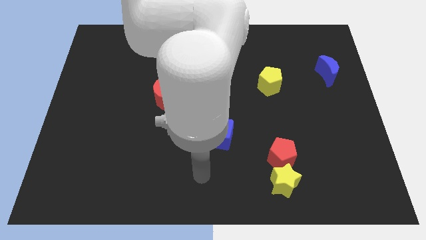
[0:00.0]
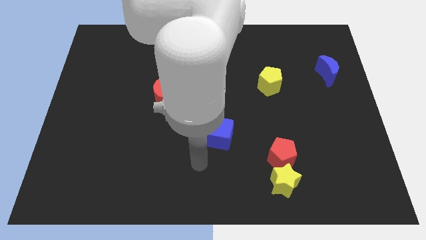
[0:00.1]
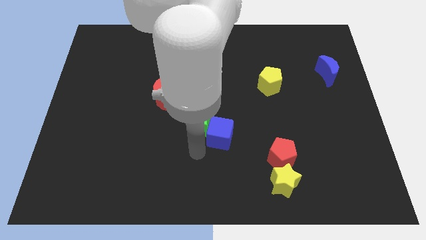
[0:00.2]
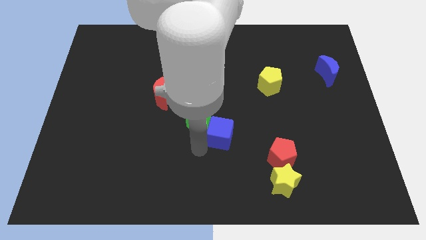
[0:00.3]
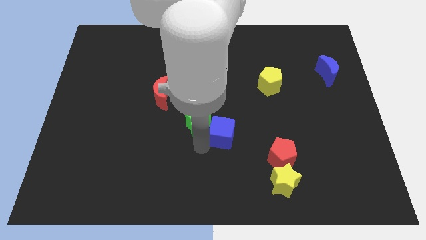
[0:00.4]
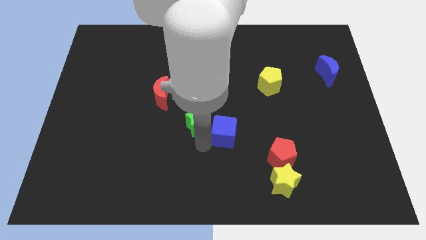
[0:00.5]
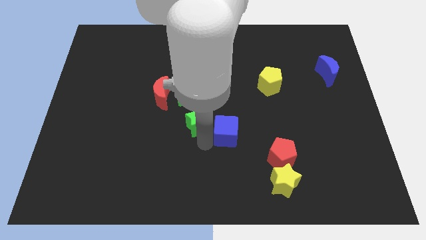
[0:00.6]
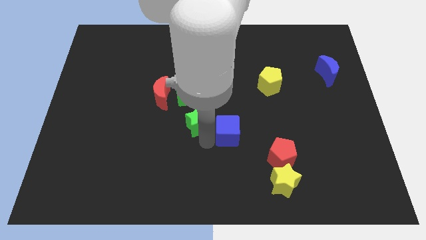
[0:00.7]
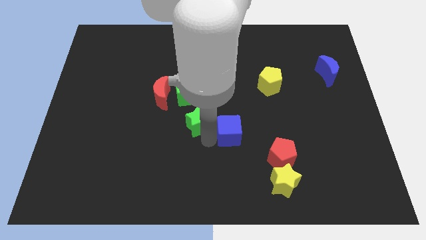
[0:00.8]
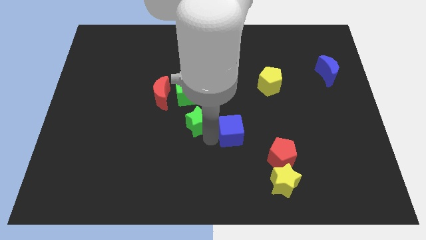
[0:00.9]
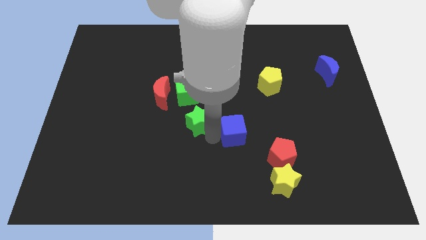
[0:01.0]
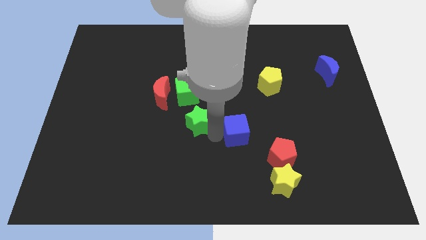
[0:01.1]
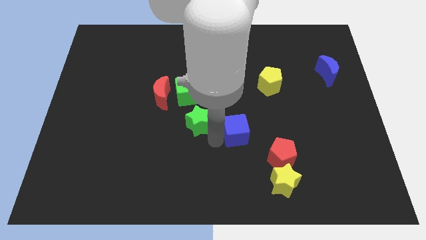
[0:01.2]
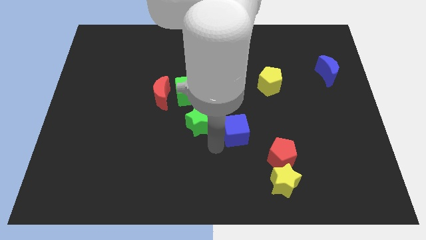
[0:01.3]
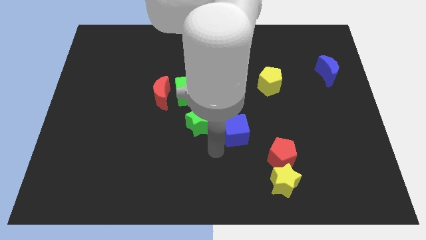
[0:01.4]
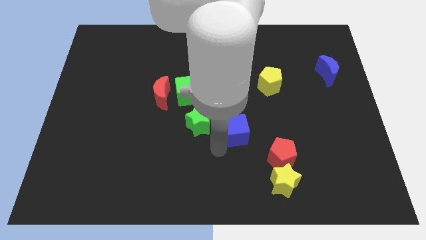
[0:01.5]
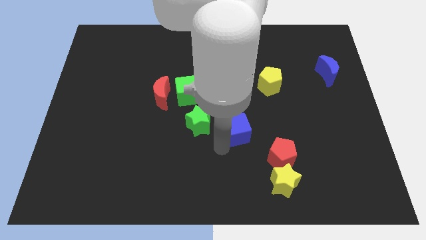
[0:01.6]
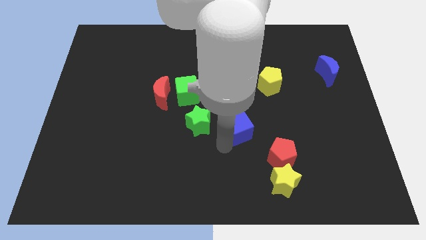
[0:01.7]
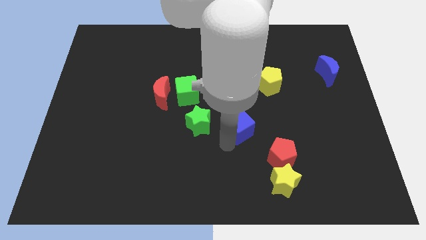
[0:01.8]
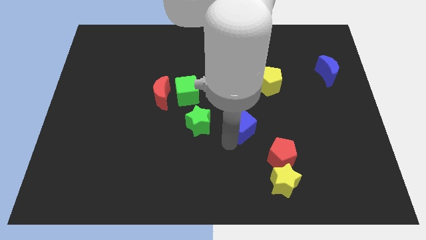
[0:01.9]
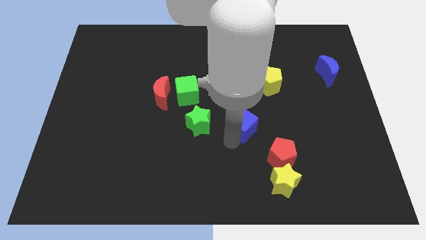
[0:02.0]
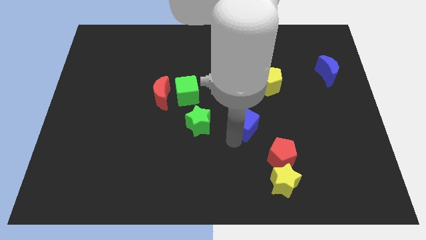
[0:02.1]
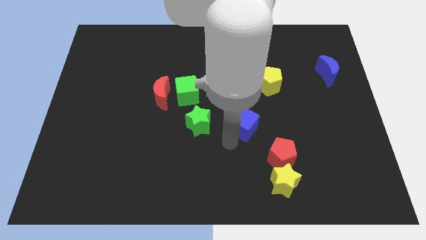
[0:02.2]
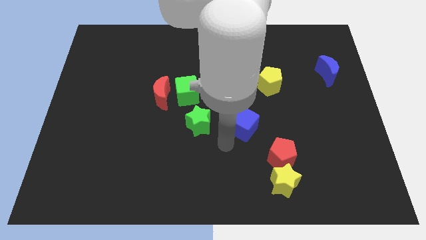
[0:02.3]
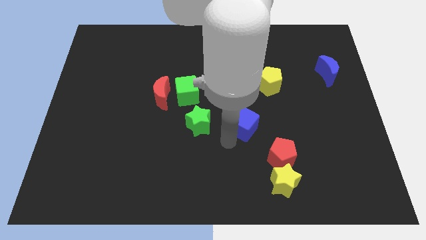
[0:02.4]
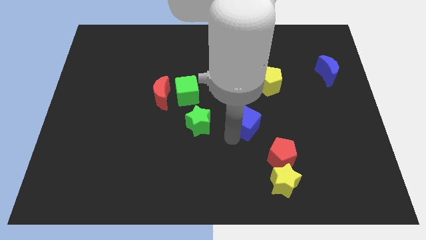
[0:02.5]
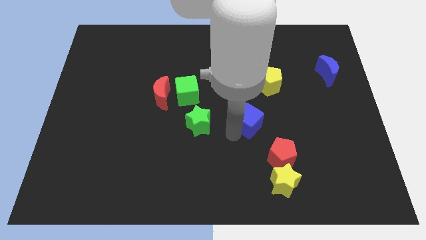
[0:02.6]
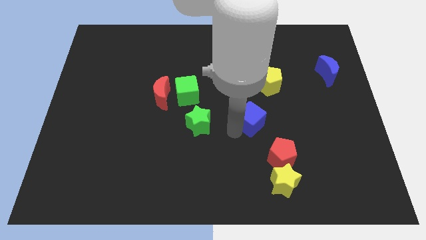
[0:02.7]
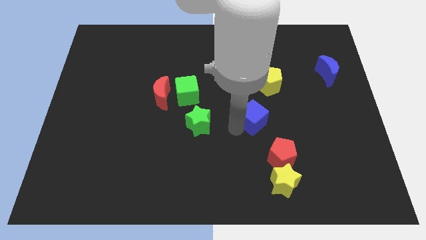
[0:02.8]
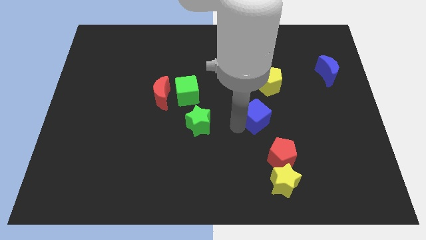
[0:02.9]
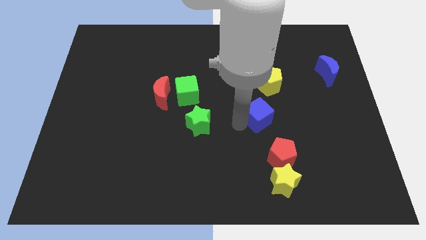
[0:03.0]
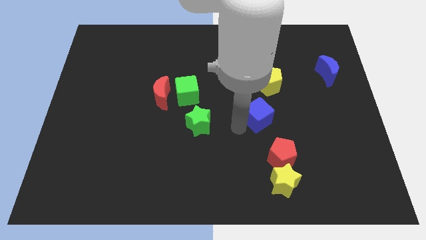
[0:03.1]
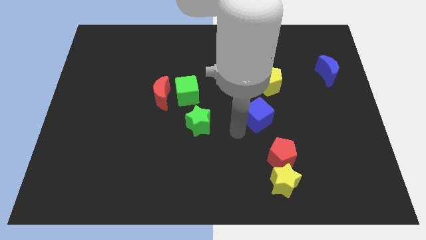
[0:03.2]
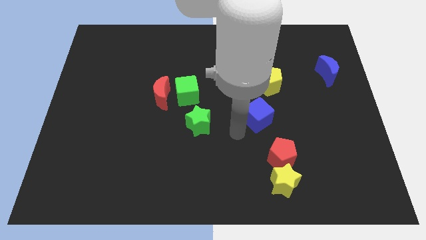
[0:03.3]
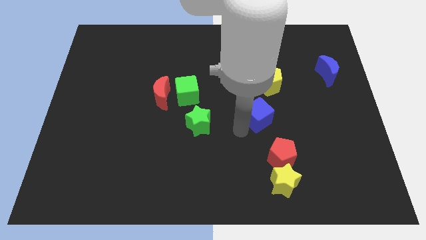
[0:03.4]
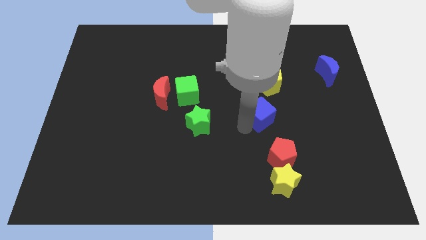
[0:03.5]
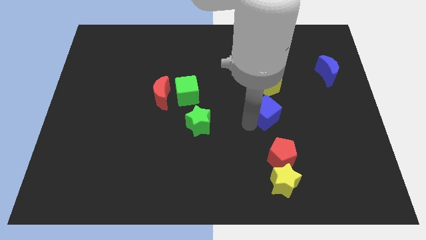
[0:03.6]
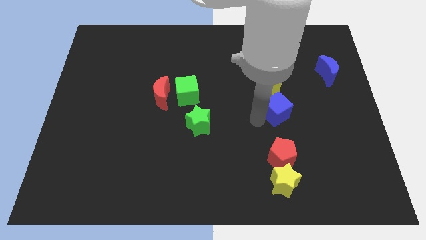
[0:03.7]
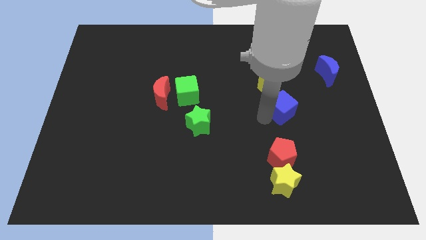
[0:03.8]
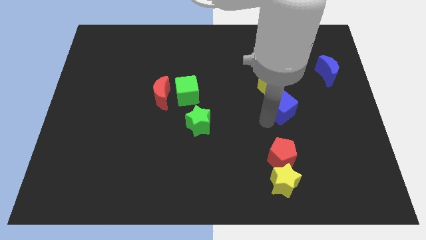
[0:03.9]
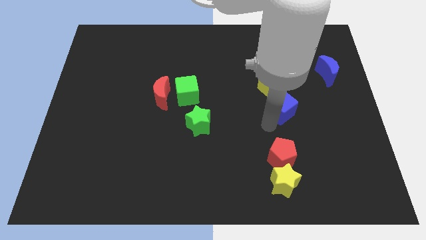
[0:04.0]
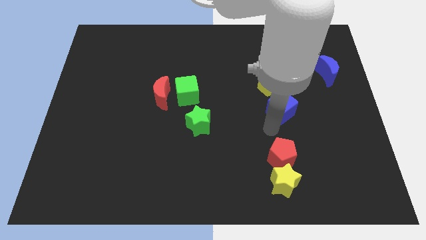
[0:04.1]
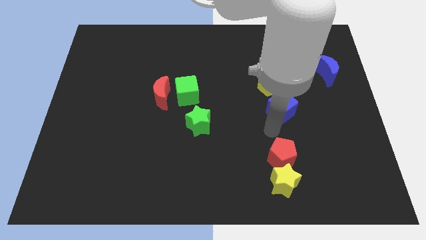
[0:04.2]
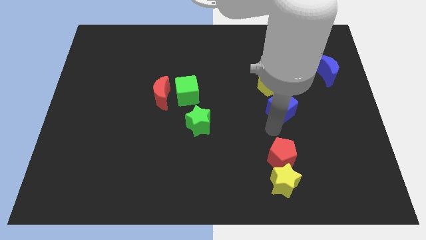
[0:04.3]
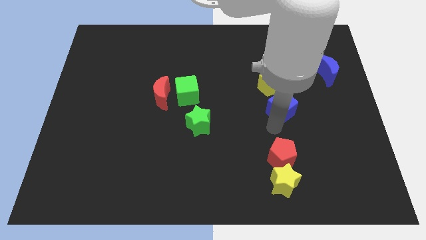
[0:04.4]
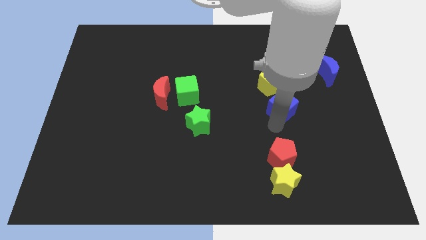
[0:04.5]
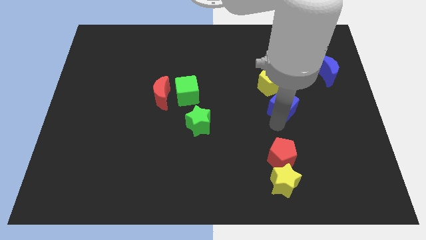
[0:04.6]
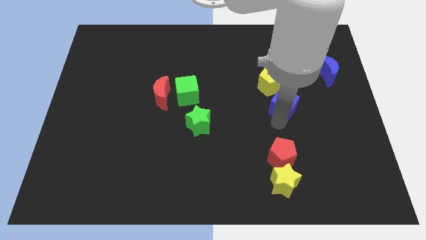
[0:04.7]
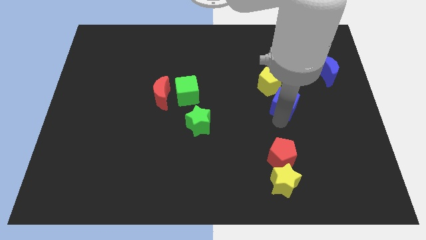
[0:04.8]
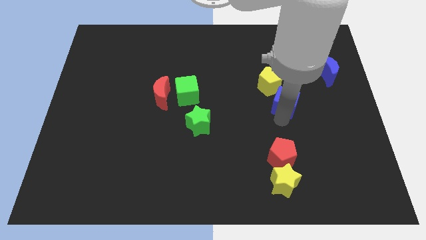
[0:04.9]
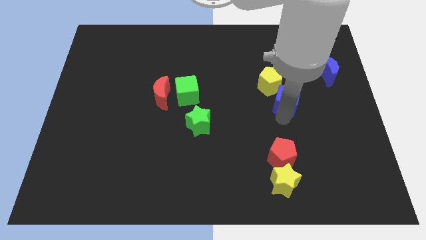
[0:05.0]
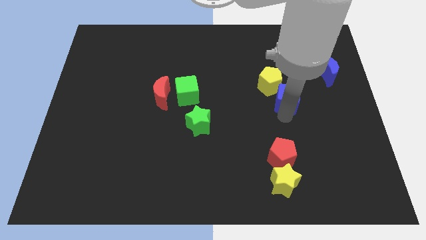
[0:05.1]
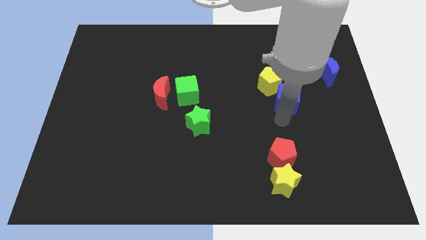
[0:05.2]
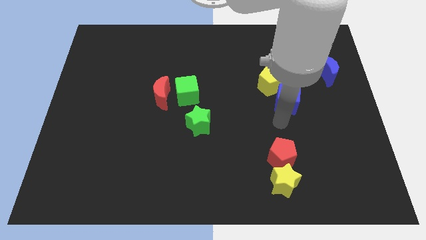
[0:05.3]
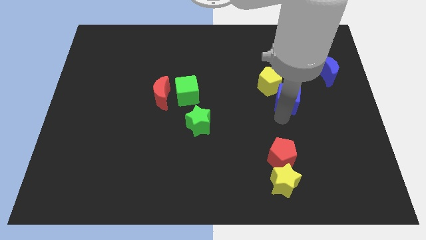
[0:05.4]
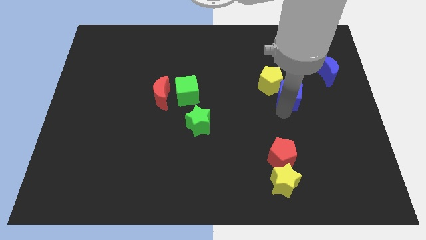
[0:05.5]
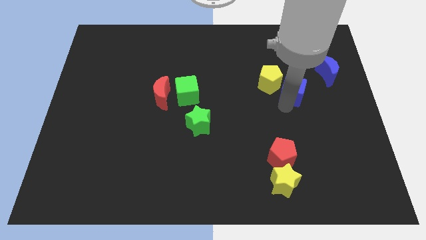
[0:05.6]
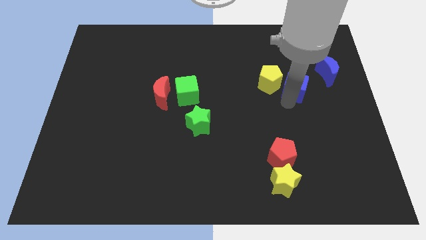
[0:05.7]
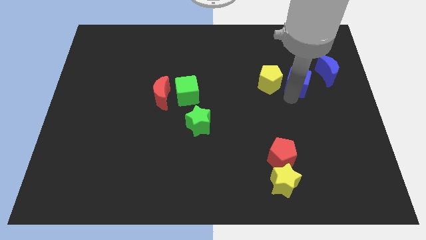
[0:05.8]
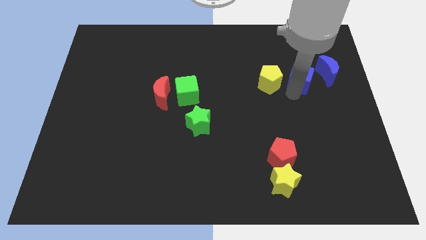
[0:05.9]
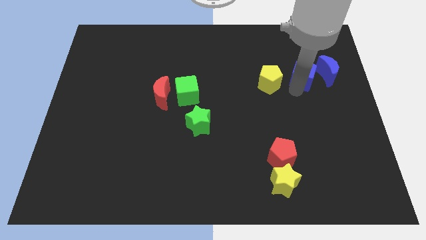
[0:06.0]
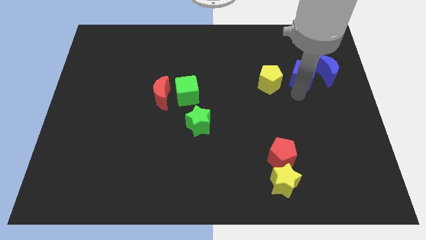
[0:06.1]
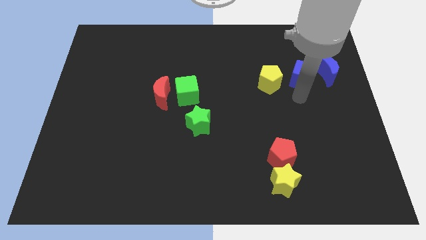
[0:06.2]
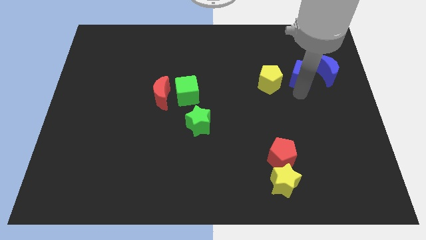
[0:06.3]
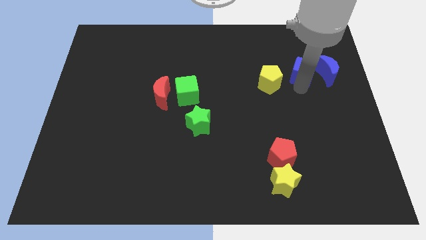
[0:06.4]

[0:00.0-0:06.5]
move the blue cube to the top left side of the blue moon

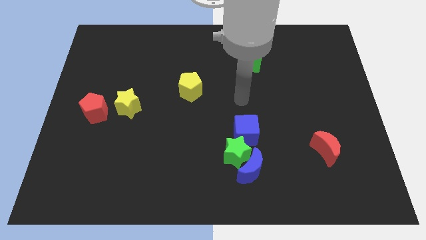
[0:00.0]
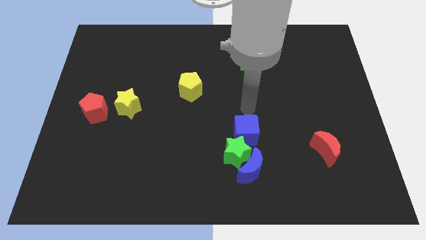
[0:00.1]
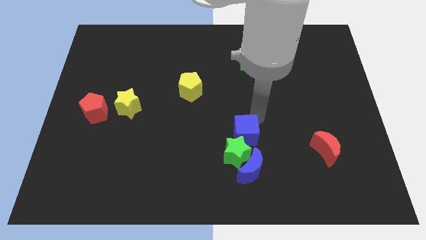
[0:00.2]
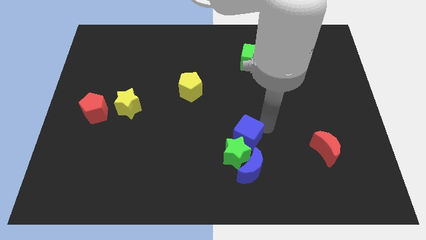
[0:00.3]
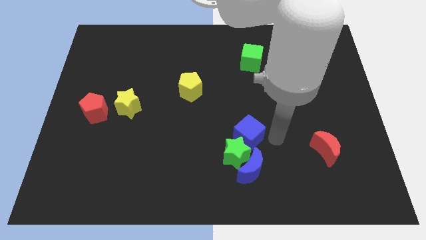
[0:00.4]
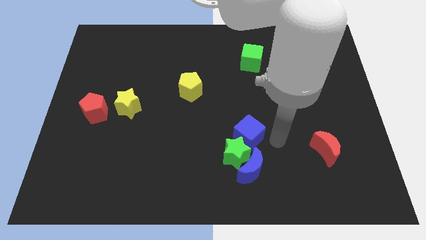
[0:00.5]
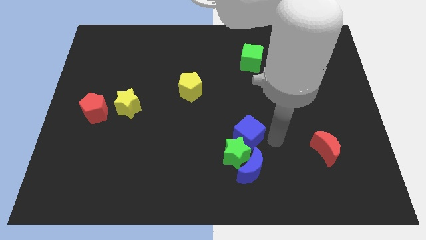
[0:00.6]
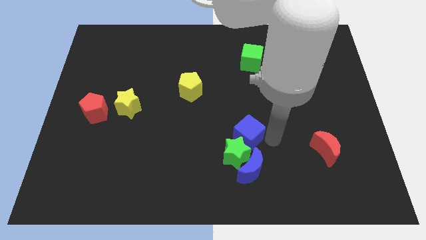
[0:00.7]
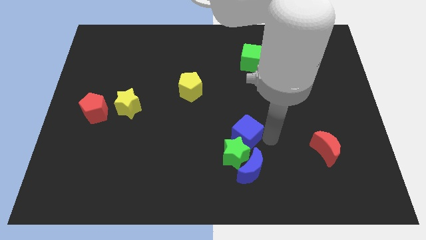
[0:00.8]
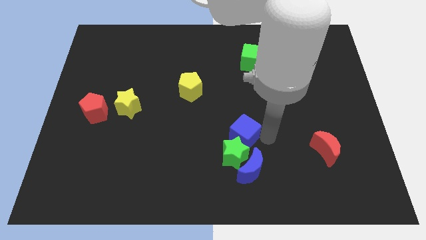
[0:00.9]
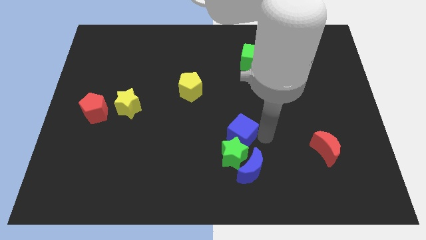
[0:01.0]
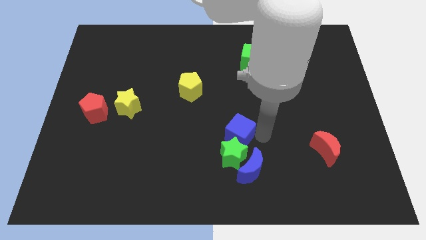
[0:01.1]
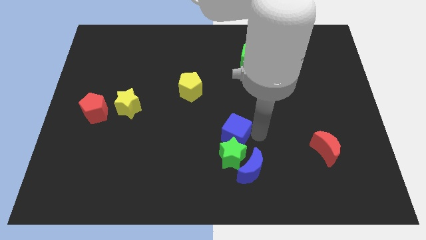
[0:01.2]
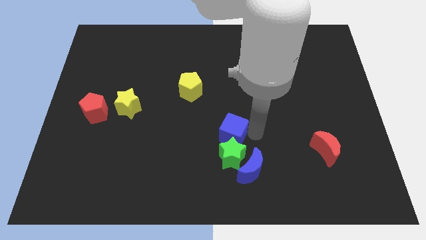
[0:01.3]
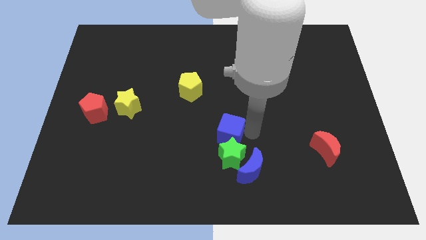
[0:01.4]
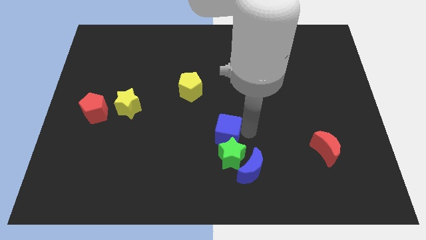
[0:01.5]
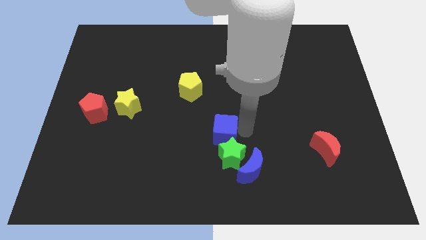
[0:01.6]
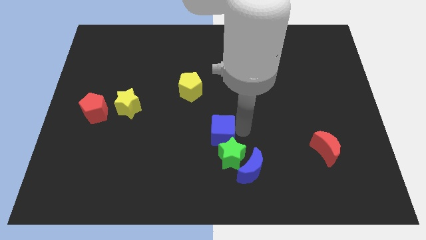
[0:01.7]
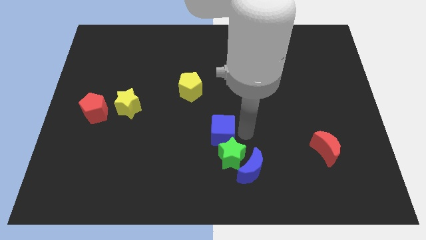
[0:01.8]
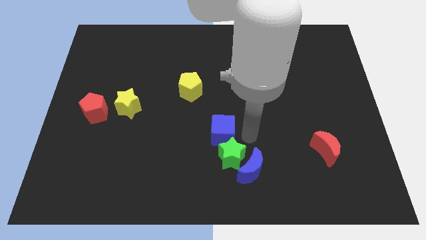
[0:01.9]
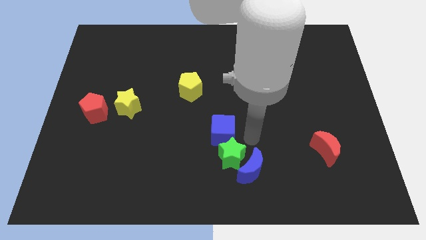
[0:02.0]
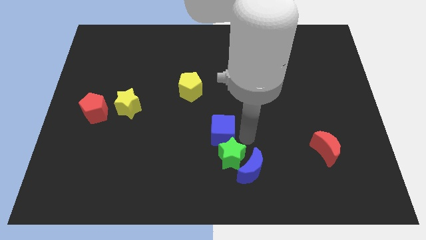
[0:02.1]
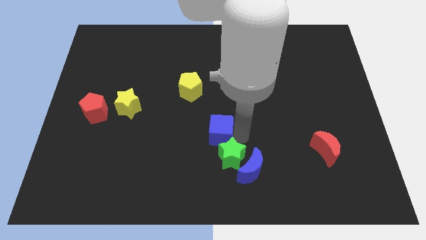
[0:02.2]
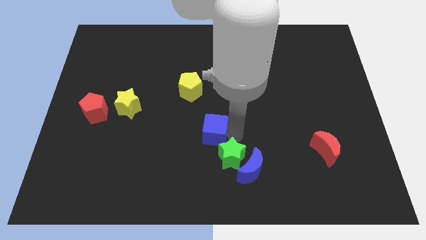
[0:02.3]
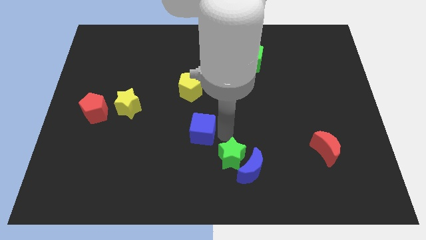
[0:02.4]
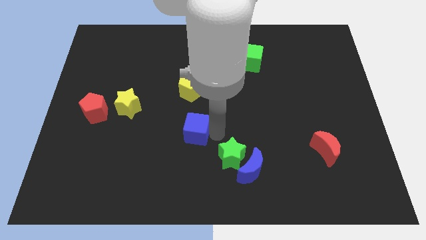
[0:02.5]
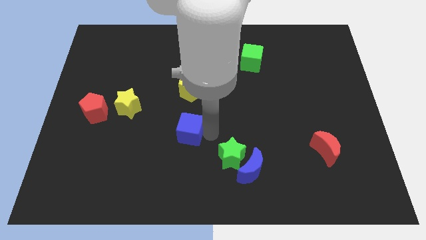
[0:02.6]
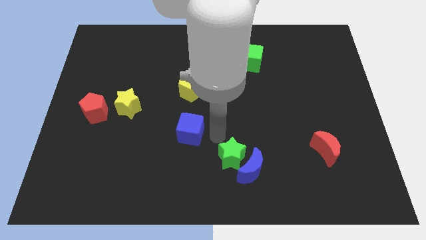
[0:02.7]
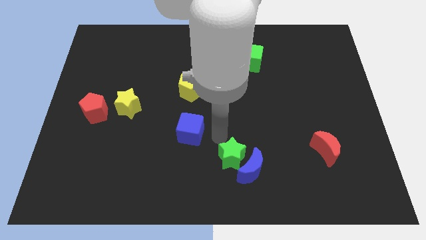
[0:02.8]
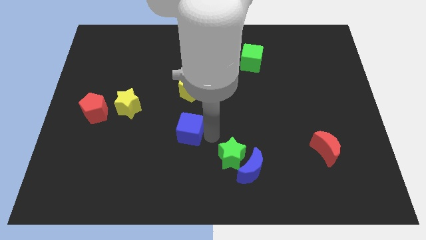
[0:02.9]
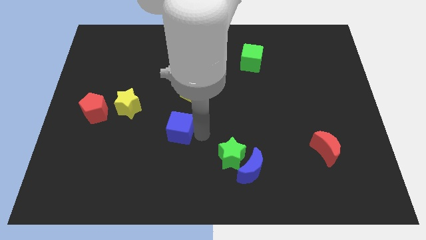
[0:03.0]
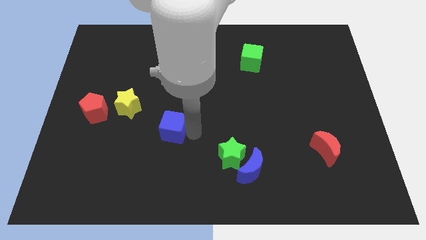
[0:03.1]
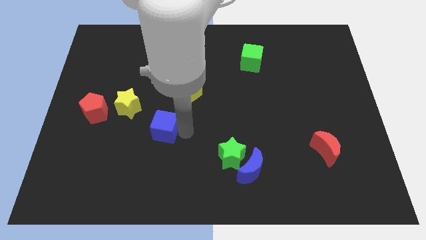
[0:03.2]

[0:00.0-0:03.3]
put the blue cube diagonally down and to the right of the yellow star
